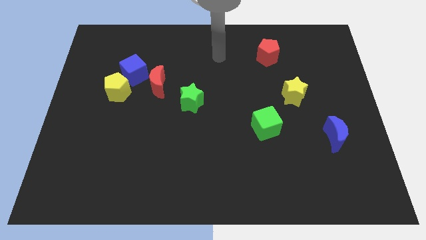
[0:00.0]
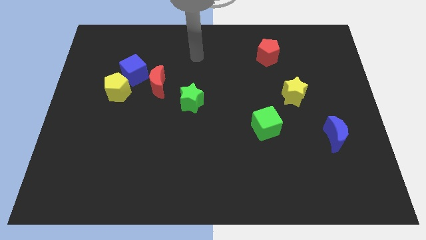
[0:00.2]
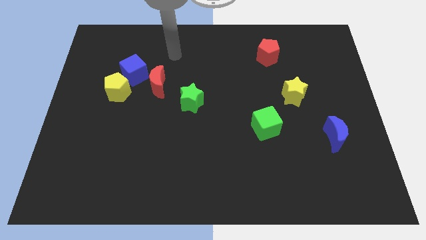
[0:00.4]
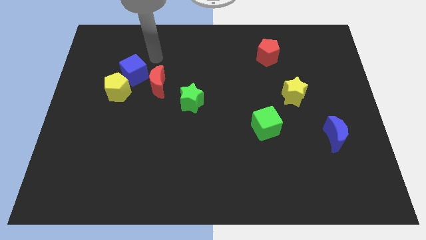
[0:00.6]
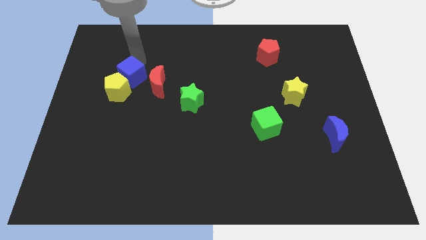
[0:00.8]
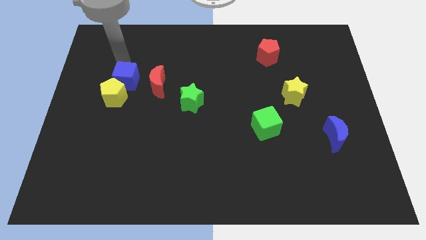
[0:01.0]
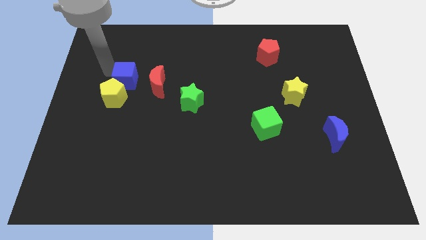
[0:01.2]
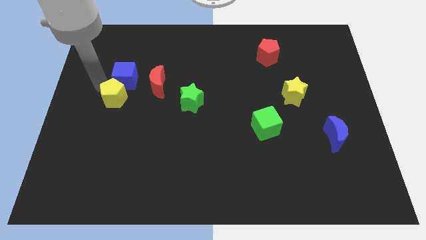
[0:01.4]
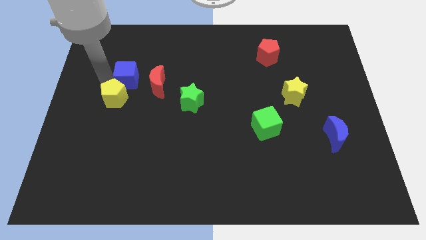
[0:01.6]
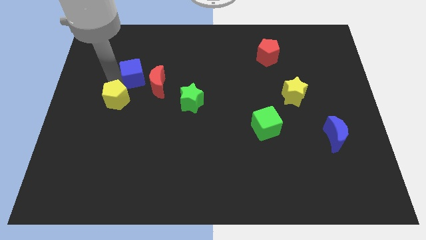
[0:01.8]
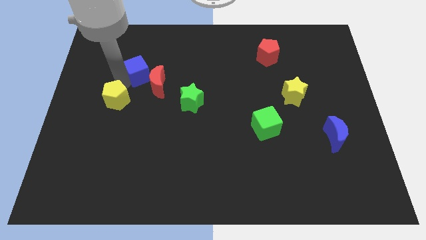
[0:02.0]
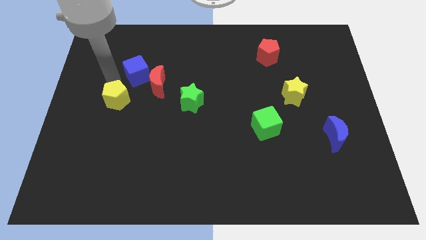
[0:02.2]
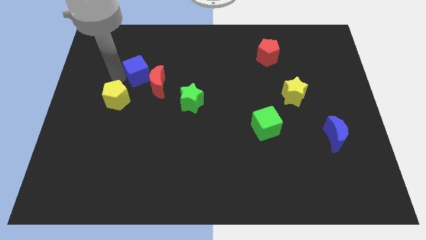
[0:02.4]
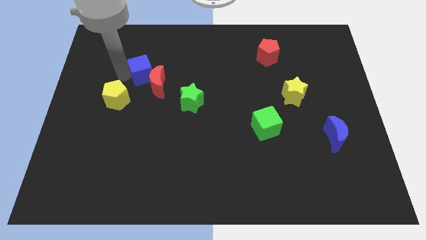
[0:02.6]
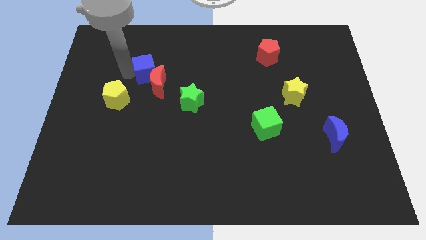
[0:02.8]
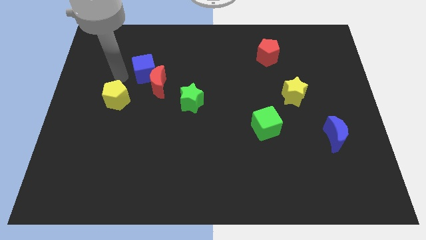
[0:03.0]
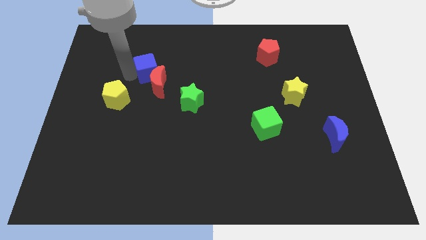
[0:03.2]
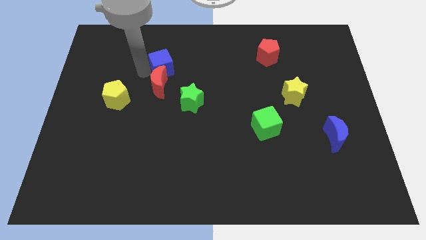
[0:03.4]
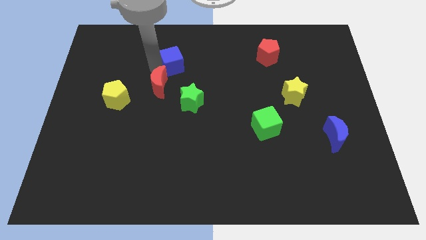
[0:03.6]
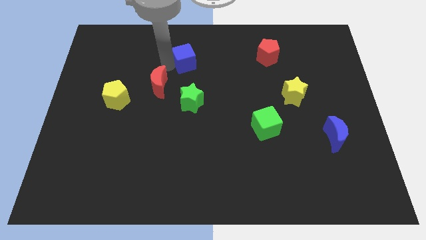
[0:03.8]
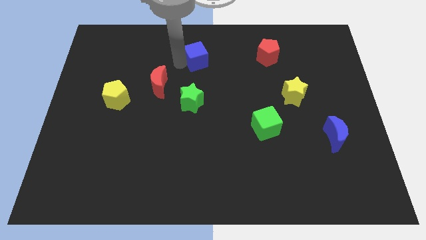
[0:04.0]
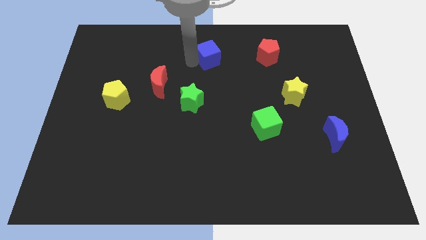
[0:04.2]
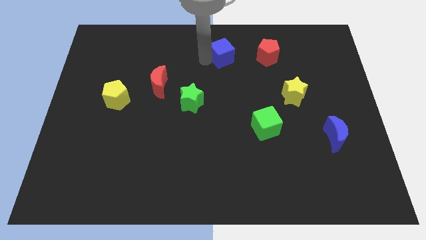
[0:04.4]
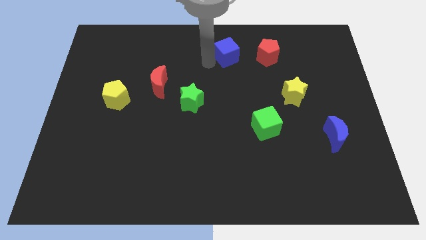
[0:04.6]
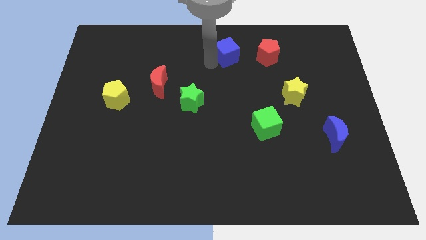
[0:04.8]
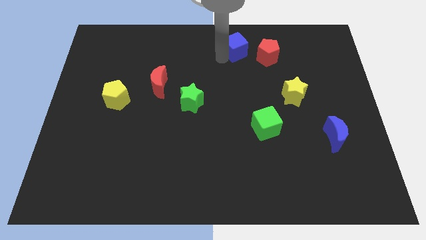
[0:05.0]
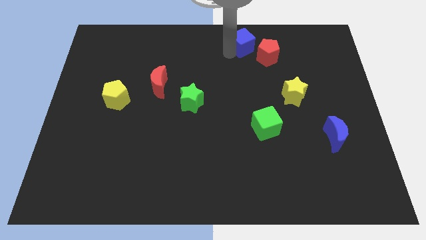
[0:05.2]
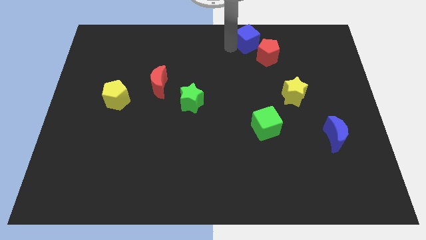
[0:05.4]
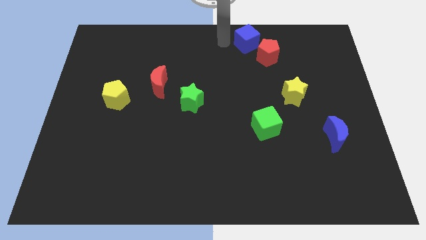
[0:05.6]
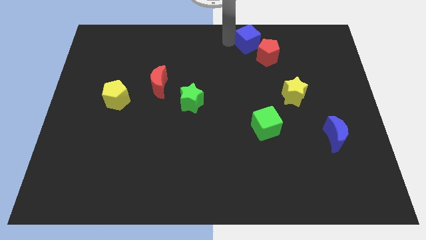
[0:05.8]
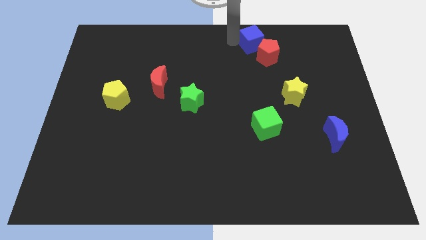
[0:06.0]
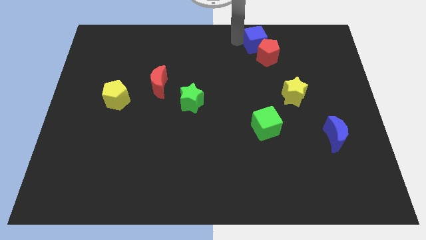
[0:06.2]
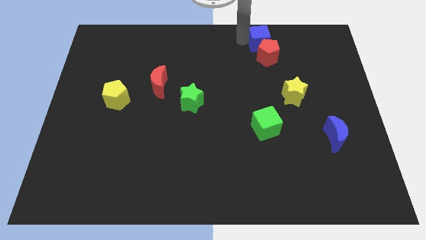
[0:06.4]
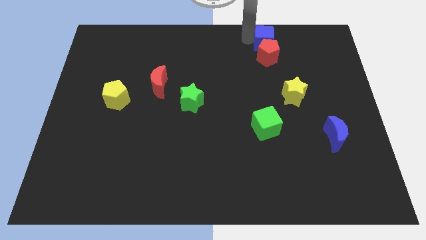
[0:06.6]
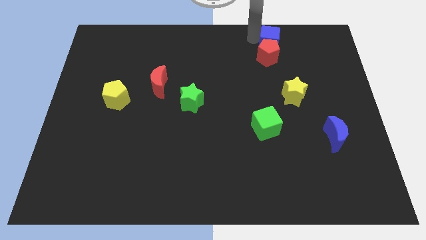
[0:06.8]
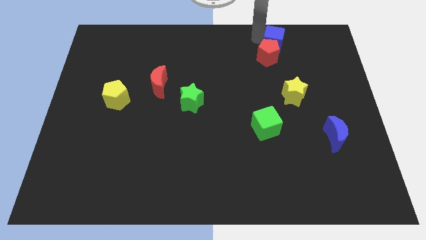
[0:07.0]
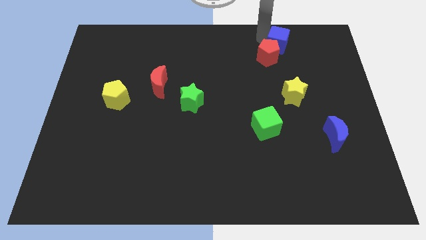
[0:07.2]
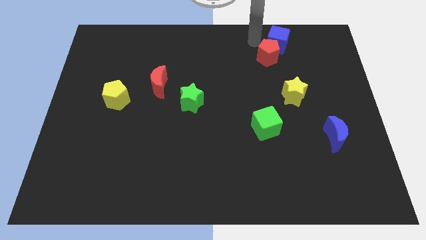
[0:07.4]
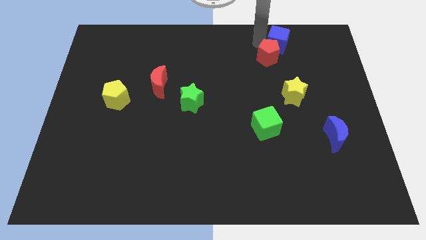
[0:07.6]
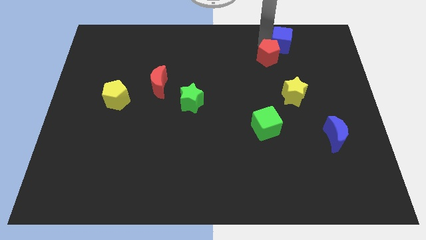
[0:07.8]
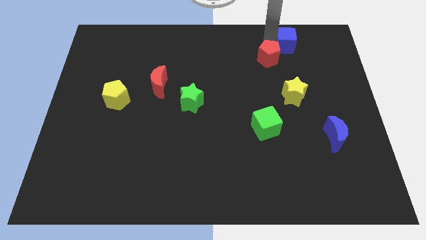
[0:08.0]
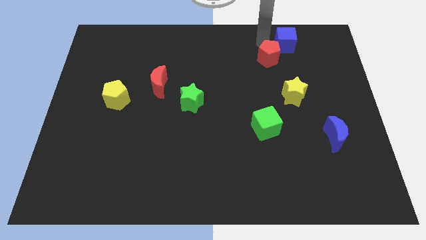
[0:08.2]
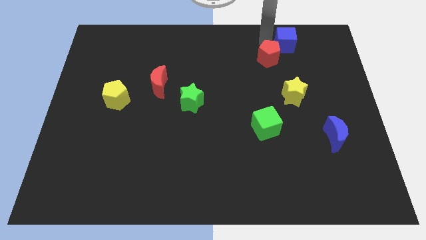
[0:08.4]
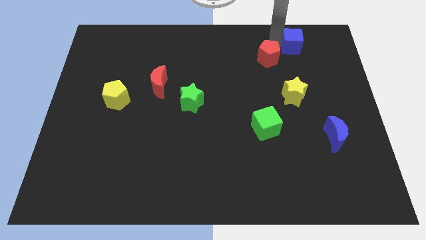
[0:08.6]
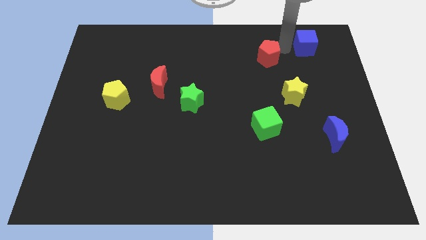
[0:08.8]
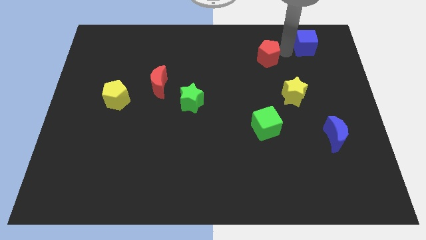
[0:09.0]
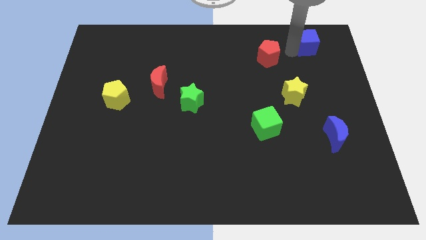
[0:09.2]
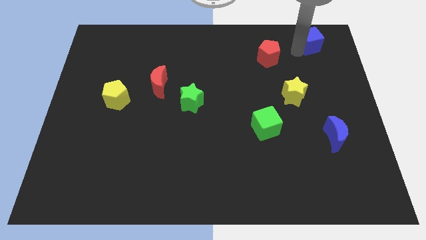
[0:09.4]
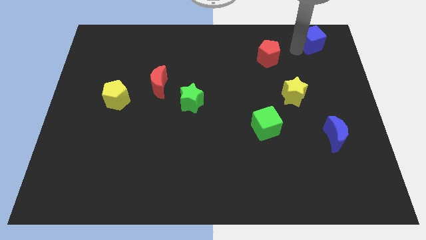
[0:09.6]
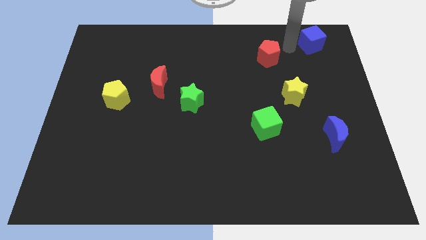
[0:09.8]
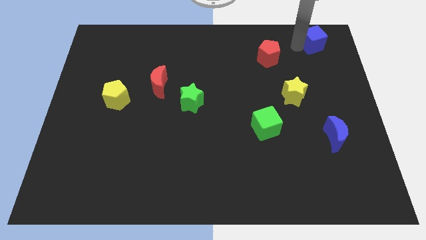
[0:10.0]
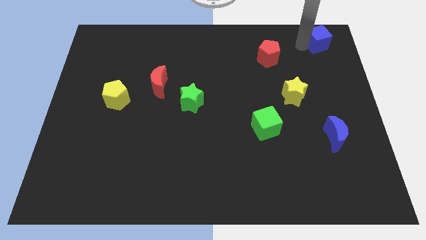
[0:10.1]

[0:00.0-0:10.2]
move the blue cube to the upper right corner
